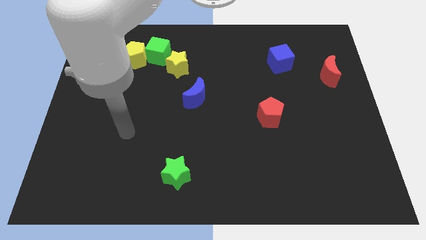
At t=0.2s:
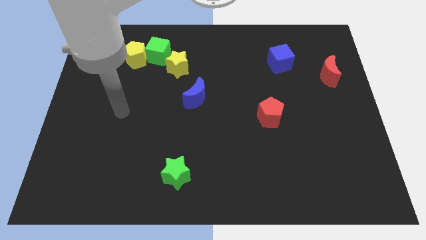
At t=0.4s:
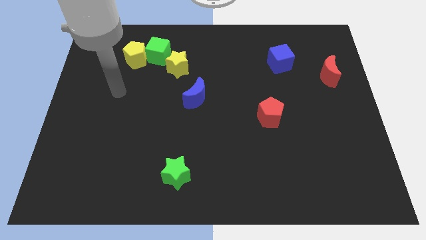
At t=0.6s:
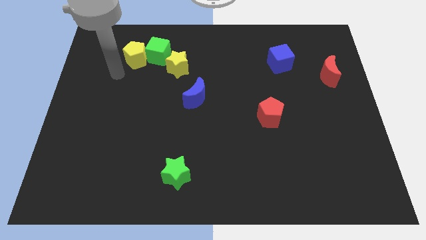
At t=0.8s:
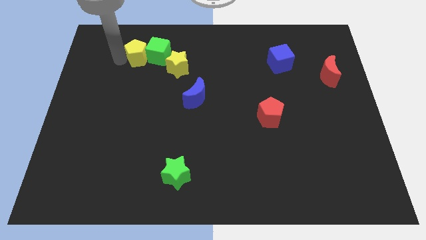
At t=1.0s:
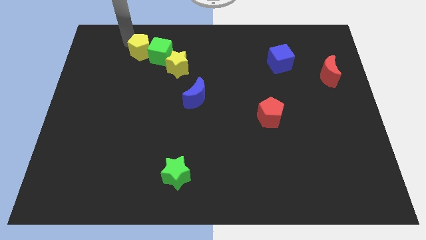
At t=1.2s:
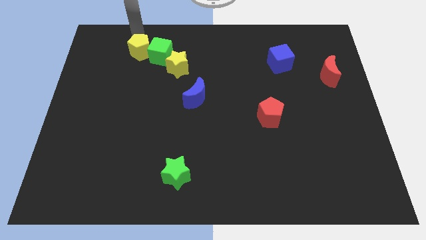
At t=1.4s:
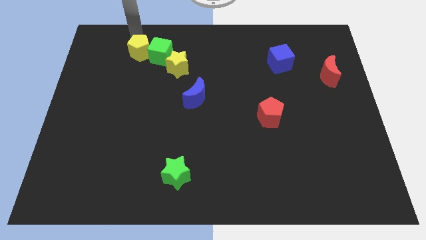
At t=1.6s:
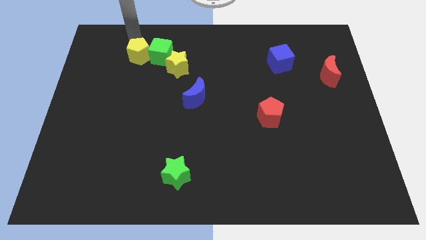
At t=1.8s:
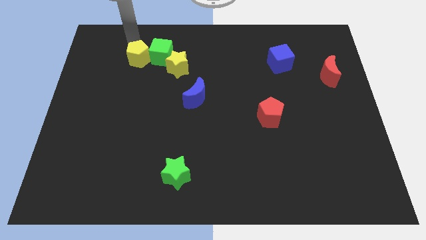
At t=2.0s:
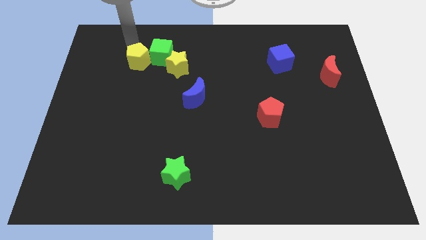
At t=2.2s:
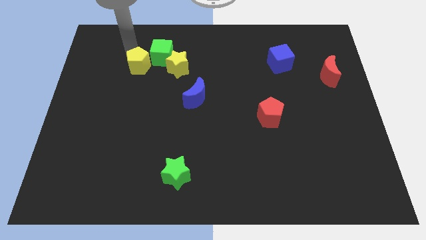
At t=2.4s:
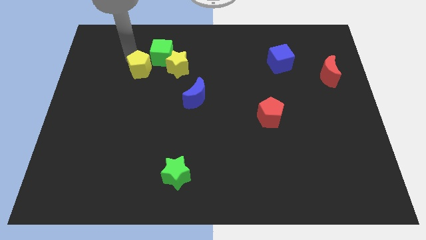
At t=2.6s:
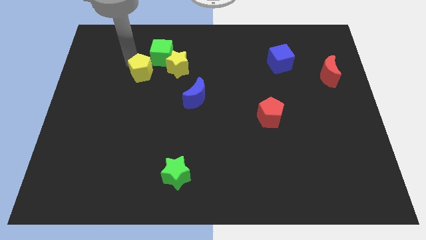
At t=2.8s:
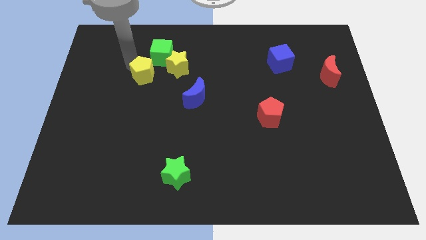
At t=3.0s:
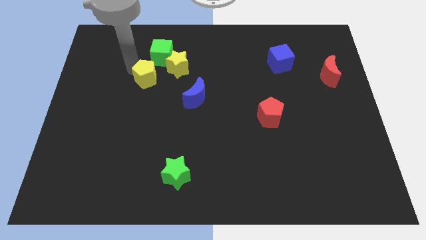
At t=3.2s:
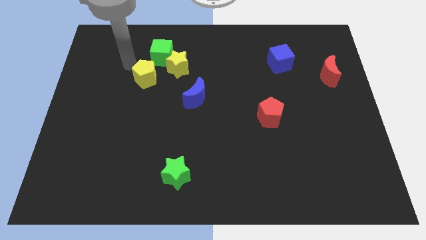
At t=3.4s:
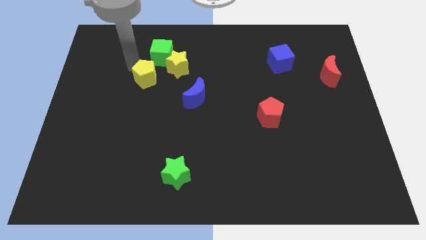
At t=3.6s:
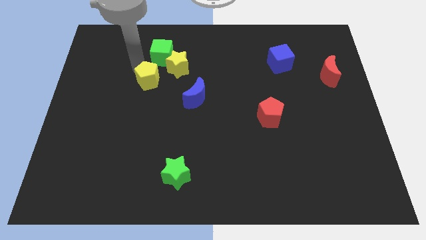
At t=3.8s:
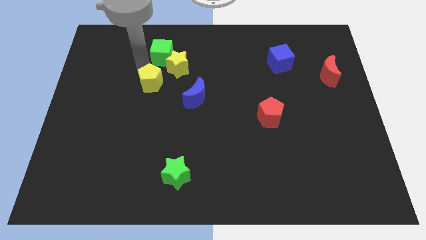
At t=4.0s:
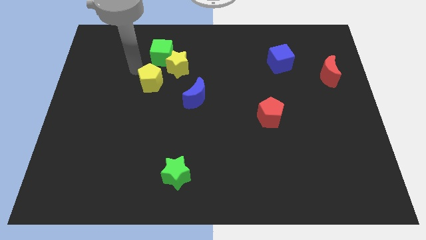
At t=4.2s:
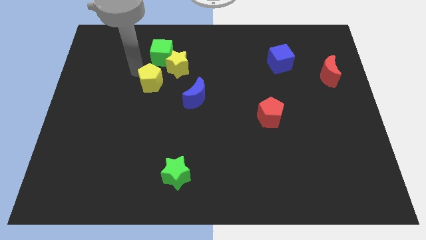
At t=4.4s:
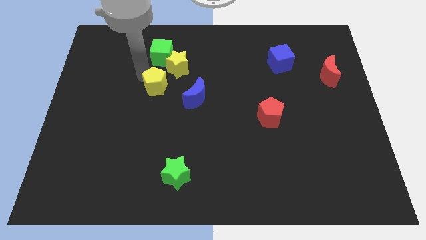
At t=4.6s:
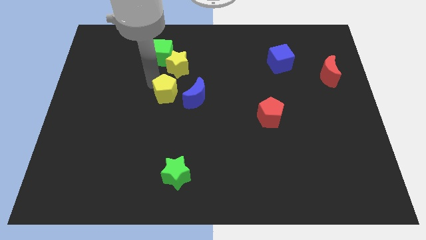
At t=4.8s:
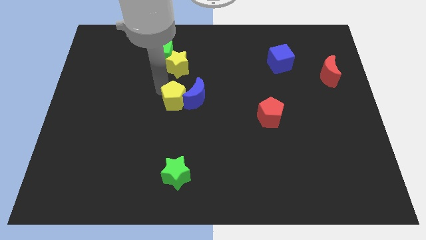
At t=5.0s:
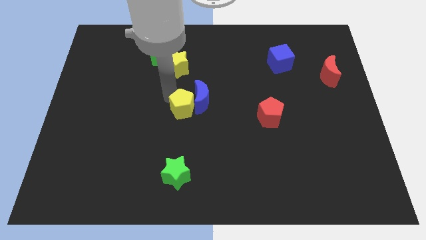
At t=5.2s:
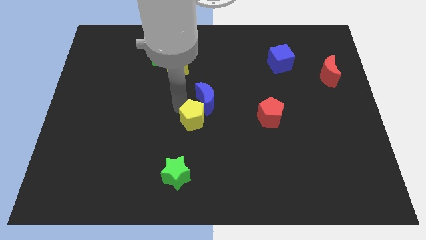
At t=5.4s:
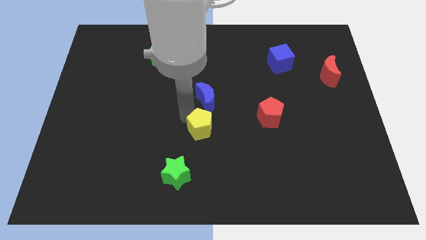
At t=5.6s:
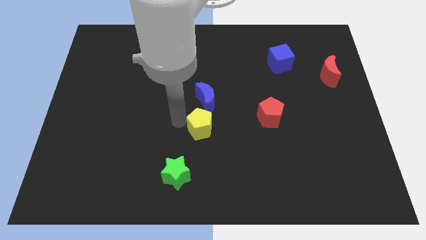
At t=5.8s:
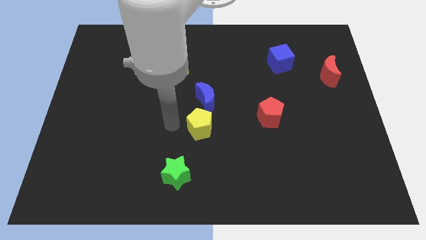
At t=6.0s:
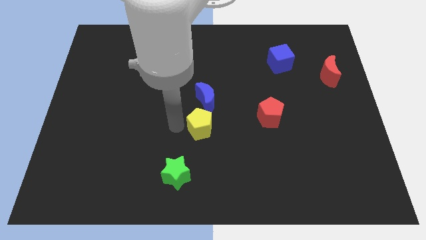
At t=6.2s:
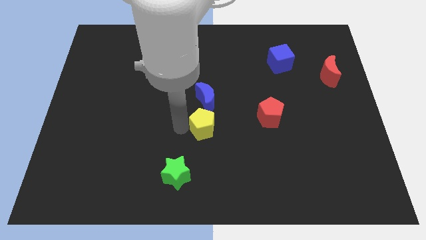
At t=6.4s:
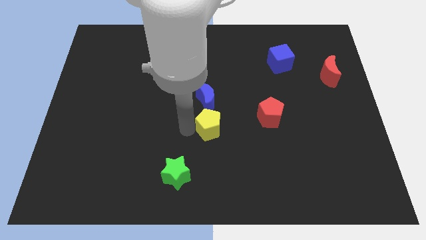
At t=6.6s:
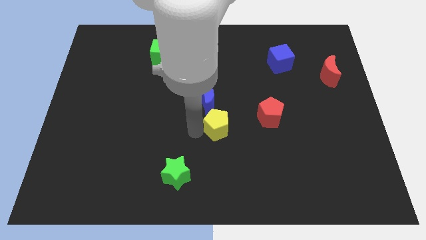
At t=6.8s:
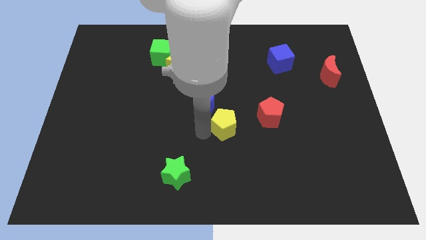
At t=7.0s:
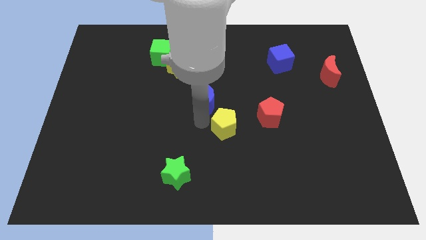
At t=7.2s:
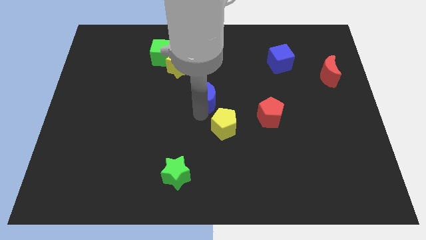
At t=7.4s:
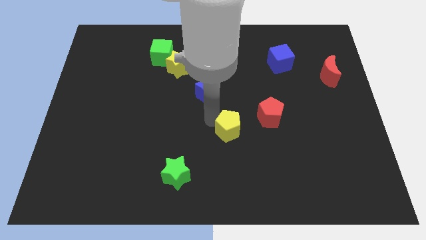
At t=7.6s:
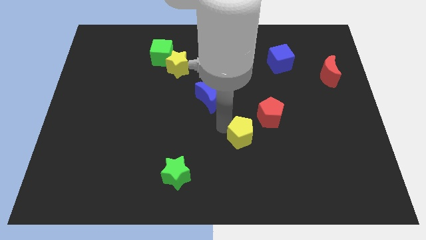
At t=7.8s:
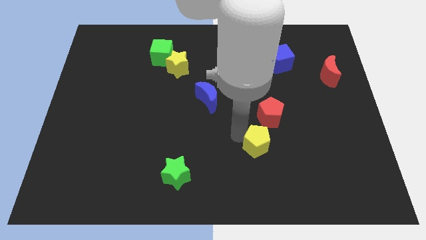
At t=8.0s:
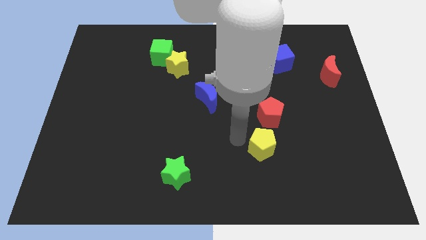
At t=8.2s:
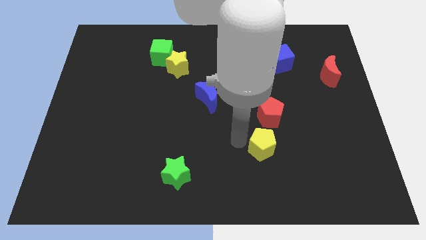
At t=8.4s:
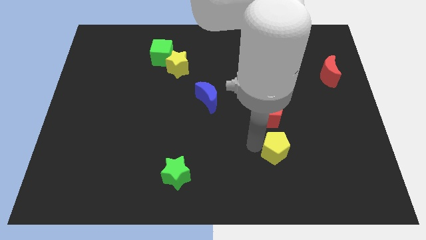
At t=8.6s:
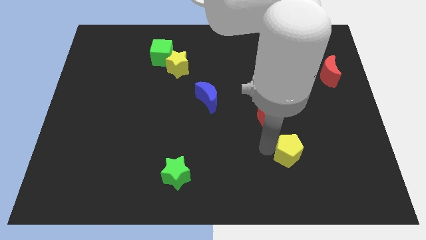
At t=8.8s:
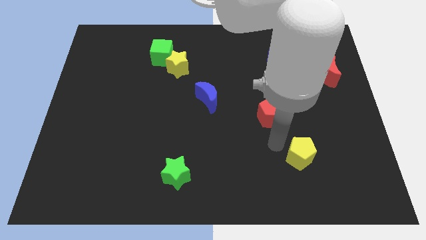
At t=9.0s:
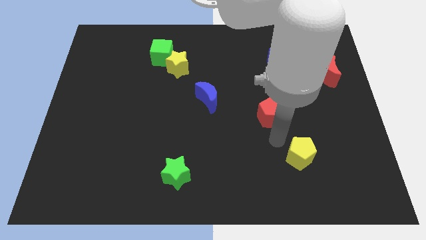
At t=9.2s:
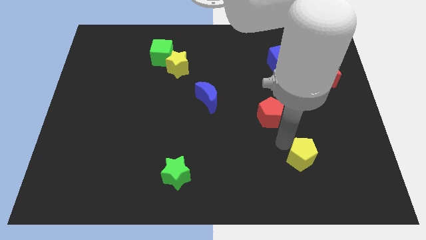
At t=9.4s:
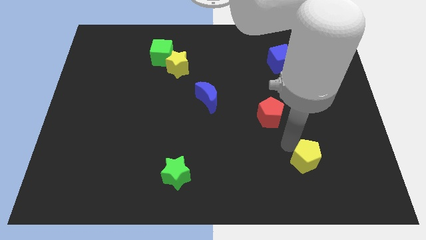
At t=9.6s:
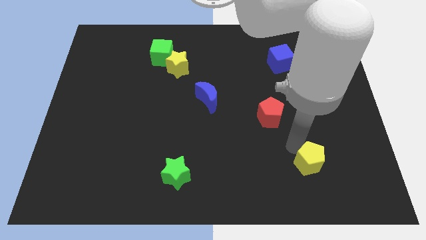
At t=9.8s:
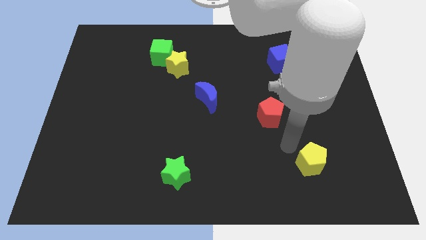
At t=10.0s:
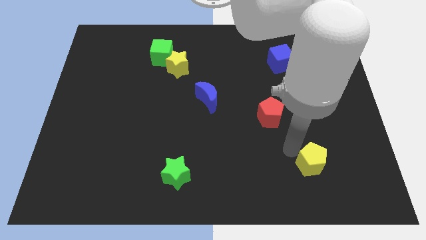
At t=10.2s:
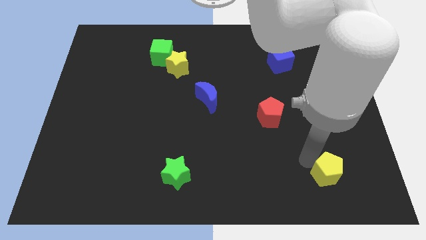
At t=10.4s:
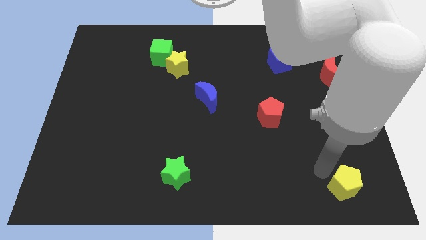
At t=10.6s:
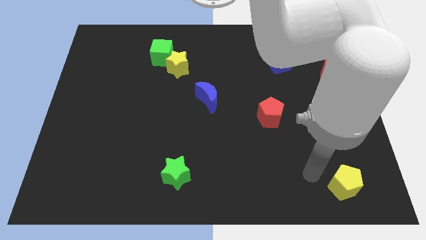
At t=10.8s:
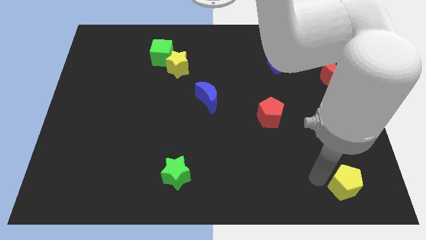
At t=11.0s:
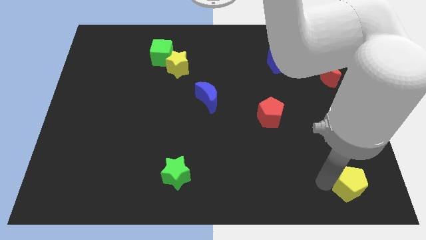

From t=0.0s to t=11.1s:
move the yellow pentagon to the bottom right of the board

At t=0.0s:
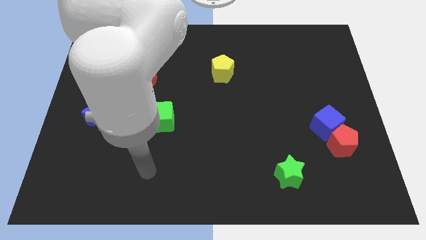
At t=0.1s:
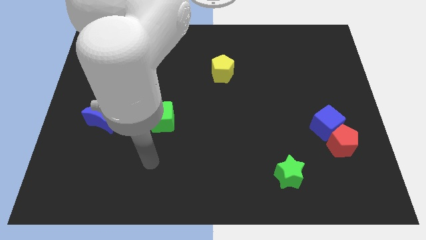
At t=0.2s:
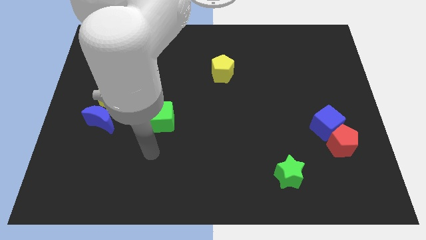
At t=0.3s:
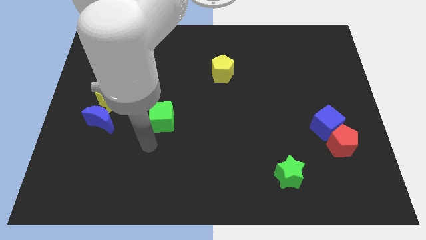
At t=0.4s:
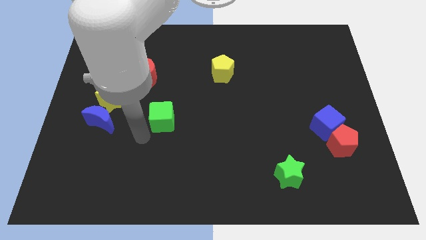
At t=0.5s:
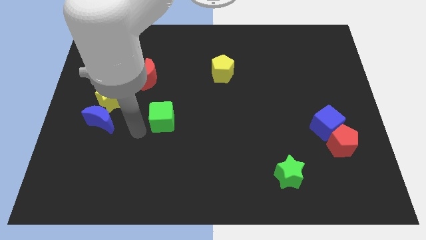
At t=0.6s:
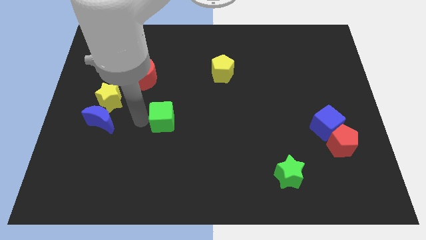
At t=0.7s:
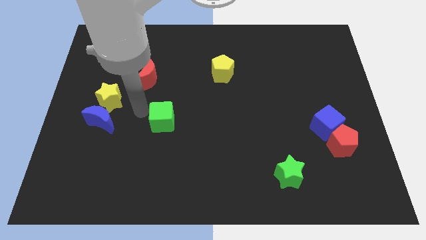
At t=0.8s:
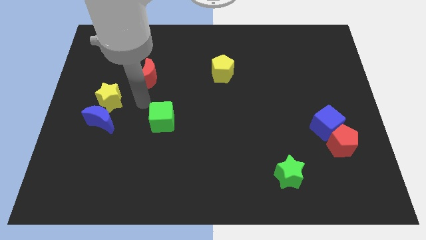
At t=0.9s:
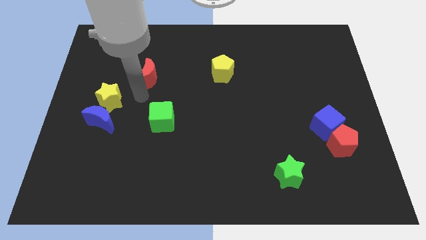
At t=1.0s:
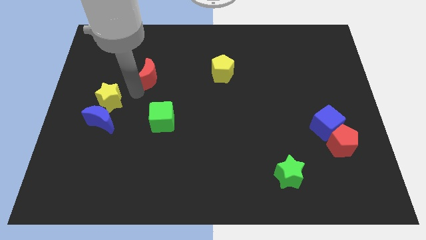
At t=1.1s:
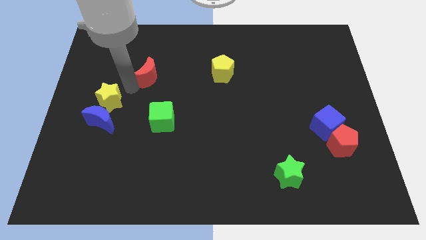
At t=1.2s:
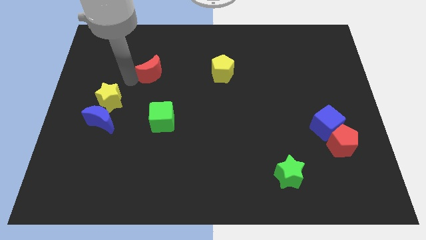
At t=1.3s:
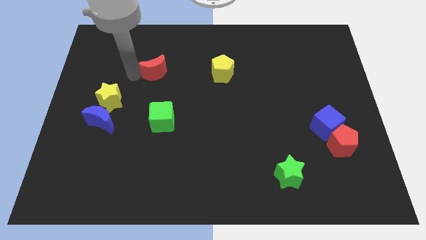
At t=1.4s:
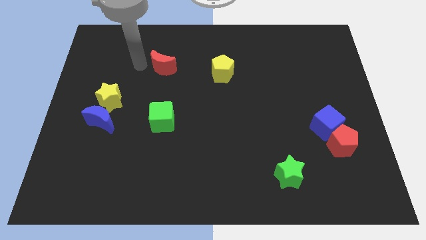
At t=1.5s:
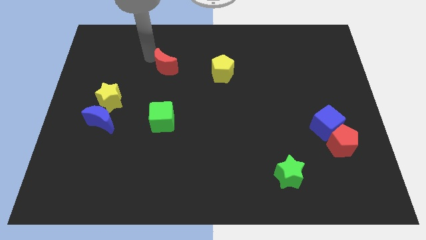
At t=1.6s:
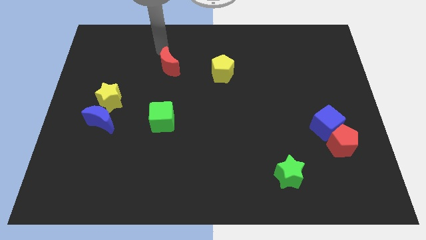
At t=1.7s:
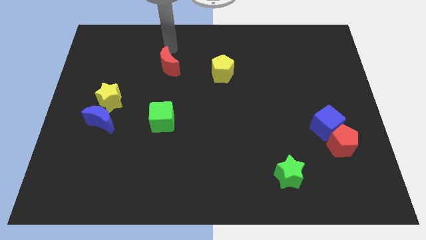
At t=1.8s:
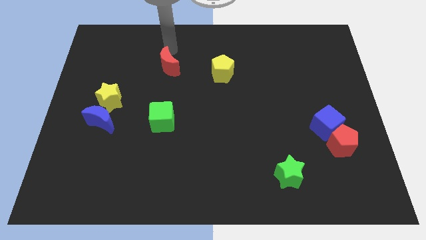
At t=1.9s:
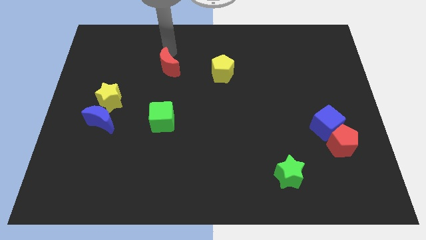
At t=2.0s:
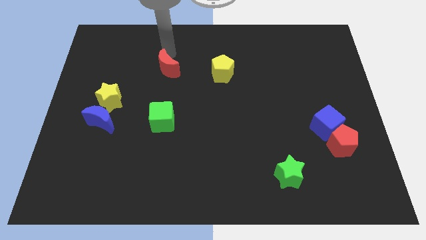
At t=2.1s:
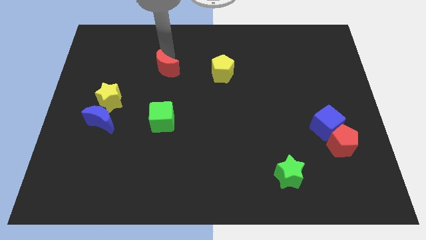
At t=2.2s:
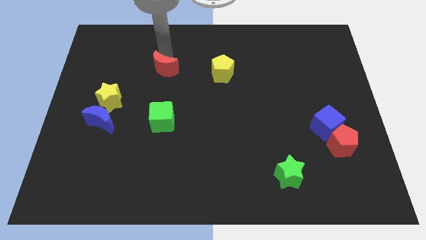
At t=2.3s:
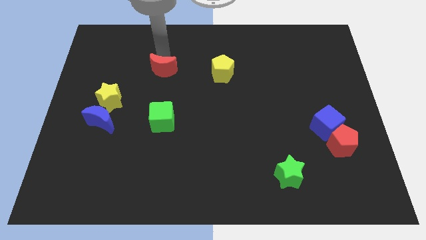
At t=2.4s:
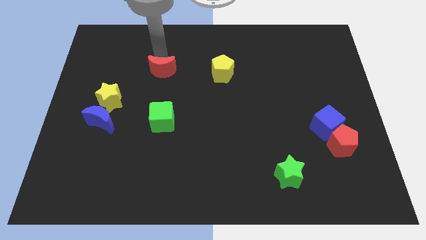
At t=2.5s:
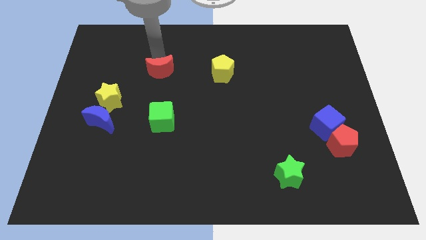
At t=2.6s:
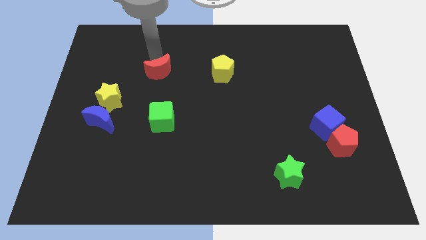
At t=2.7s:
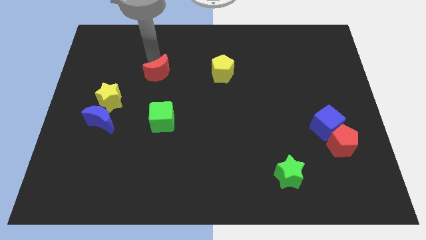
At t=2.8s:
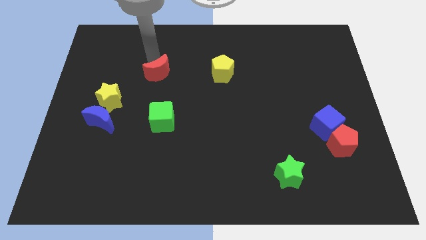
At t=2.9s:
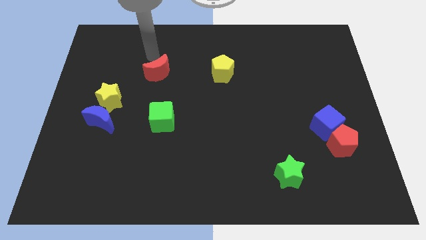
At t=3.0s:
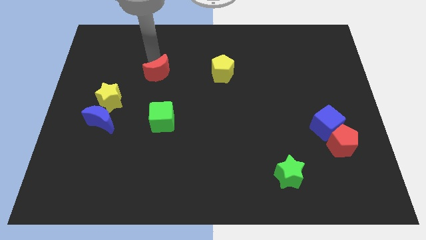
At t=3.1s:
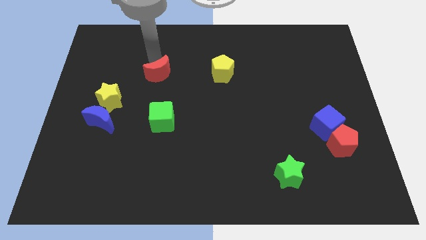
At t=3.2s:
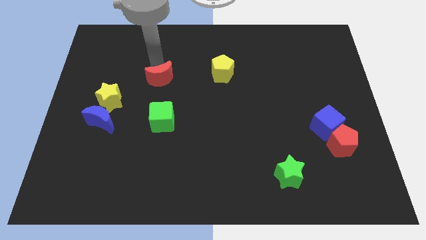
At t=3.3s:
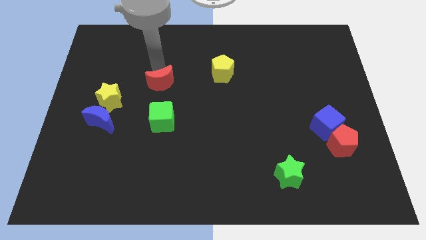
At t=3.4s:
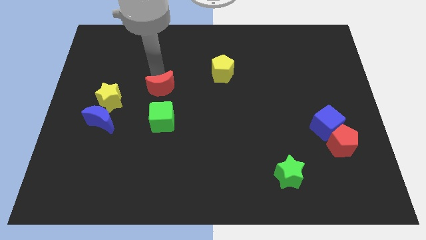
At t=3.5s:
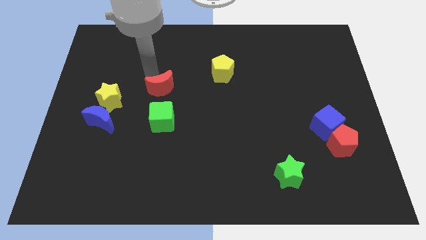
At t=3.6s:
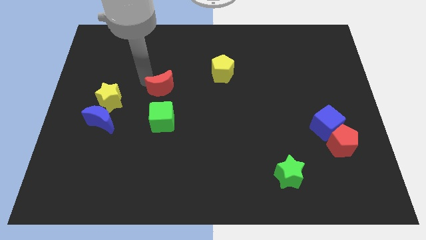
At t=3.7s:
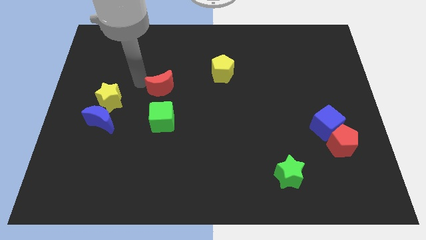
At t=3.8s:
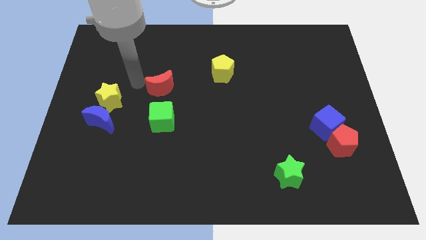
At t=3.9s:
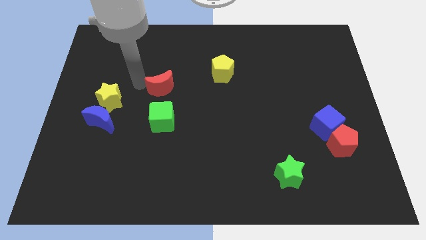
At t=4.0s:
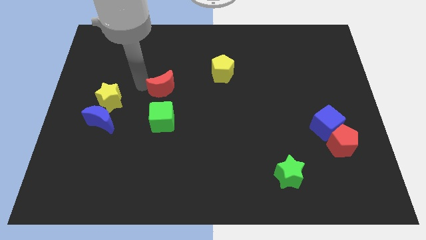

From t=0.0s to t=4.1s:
move the red moon to the middle
